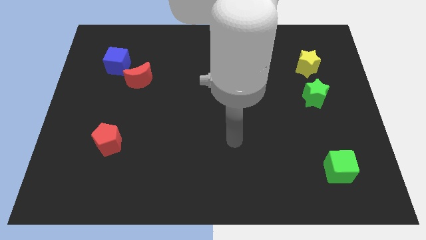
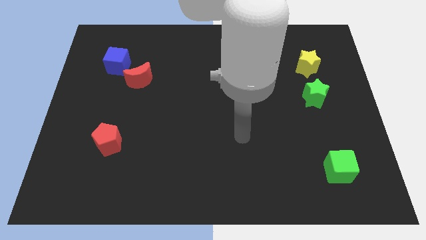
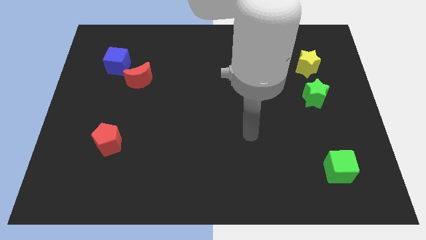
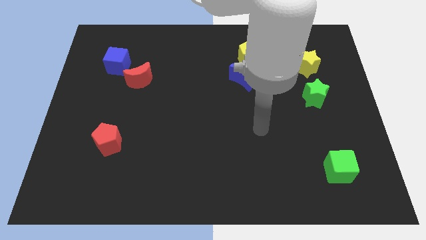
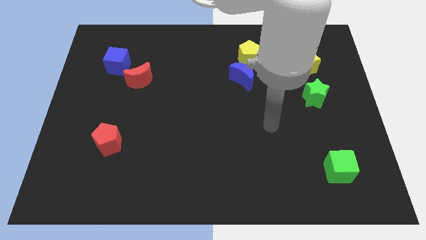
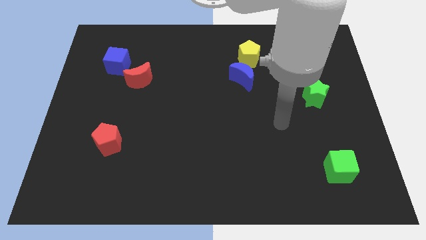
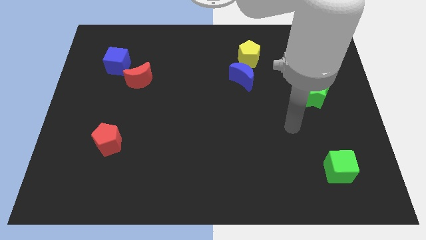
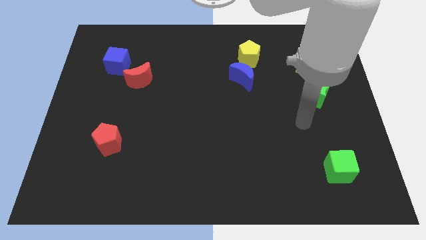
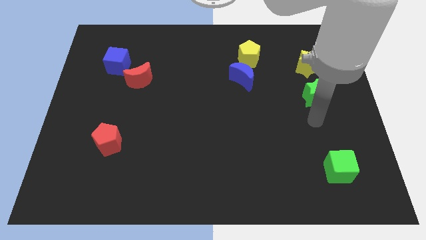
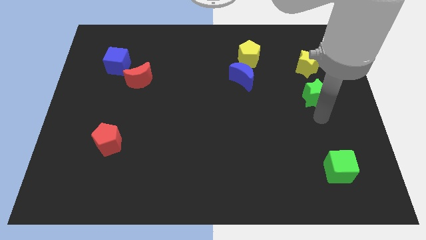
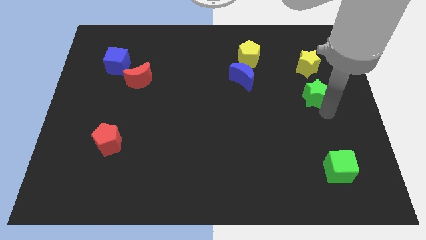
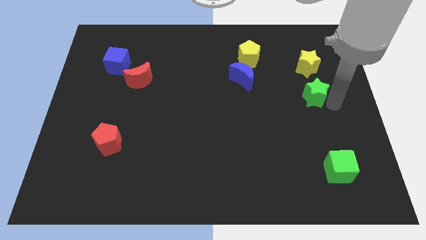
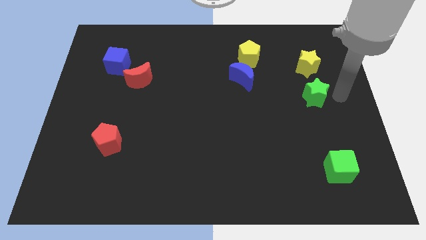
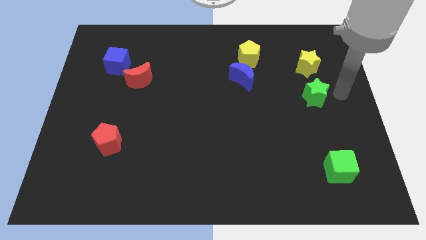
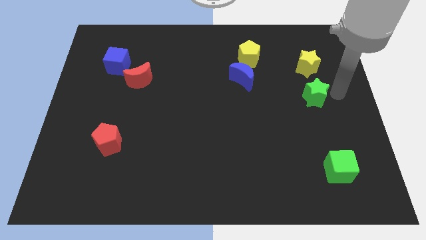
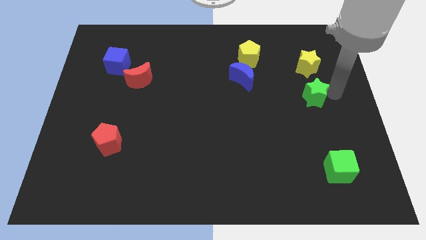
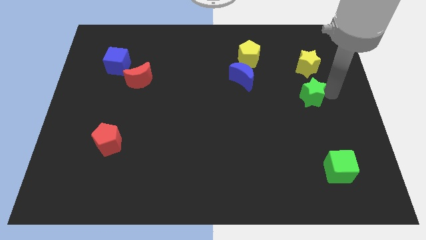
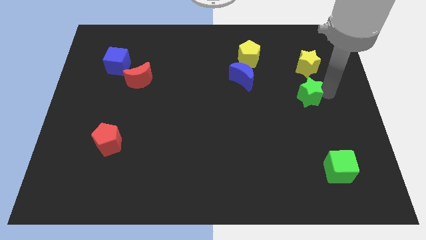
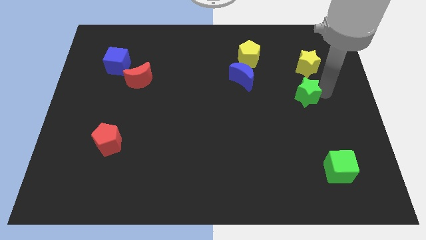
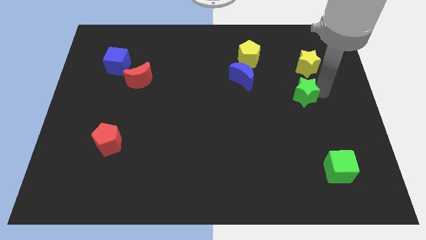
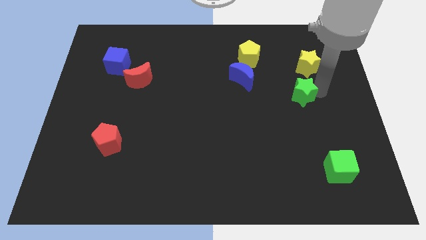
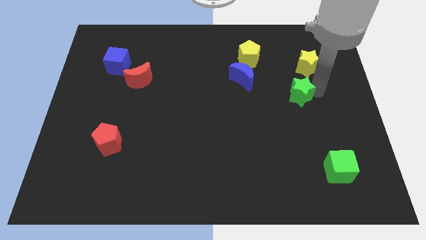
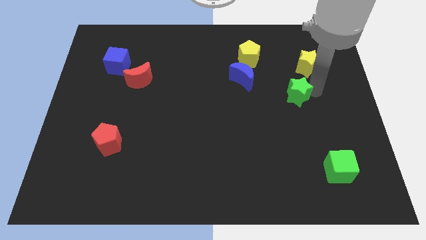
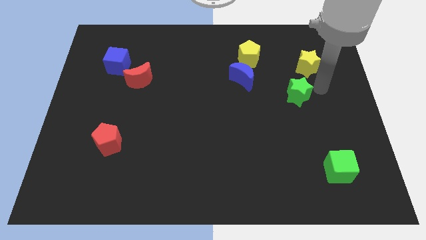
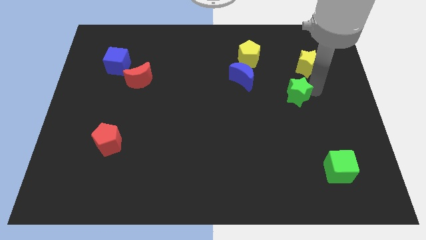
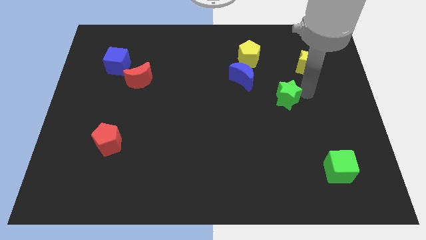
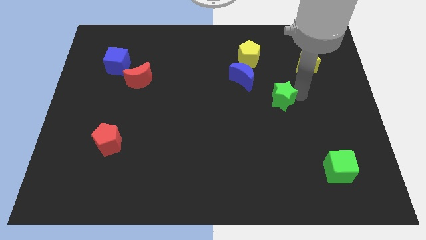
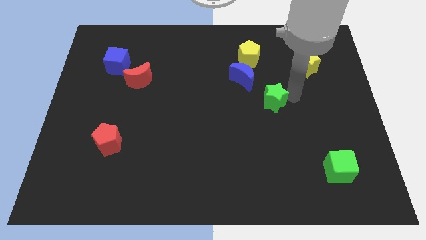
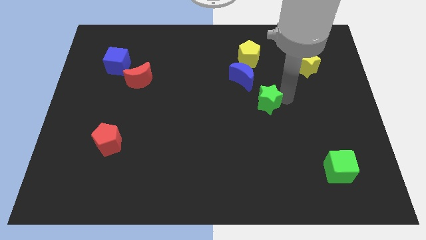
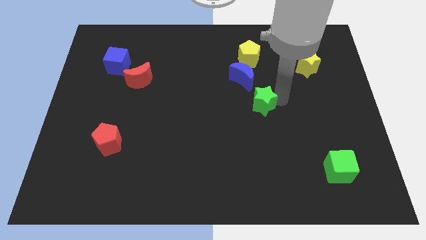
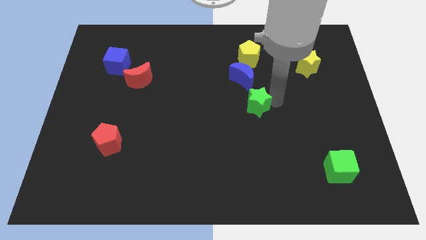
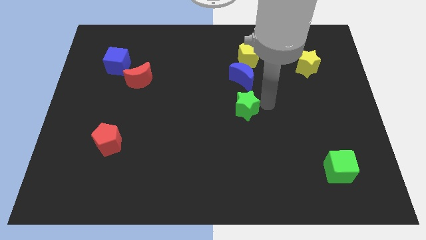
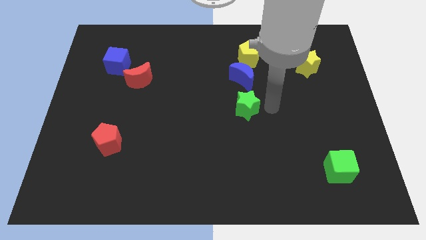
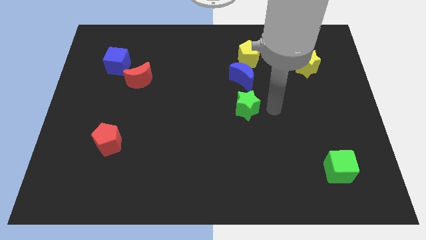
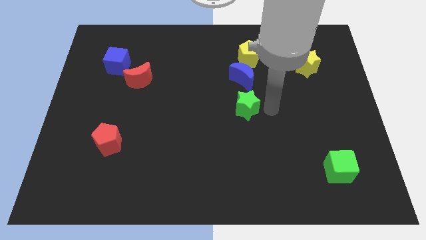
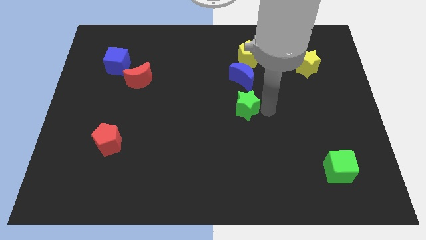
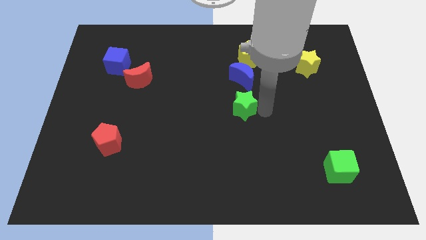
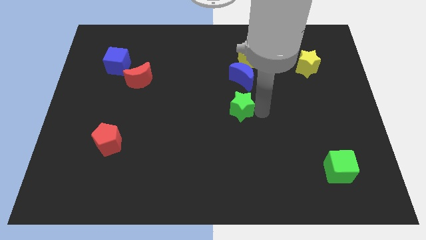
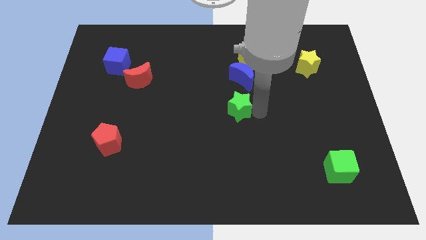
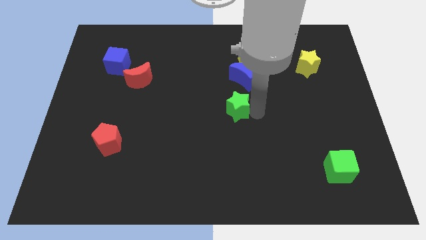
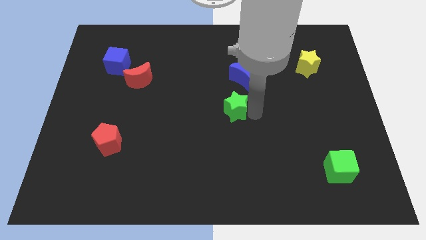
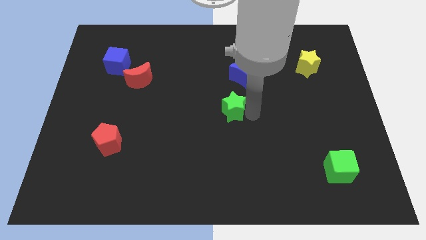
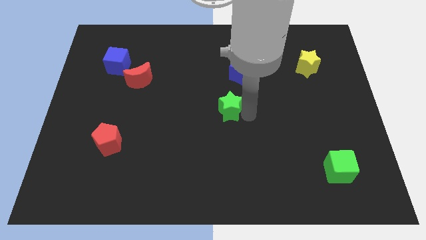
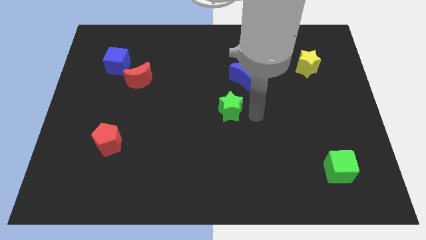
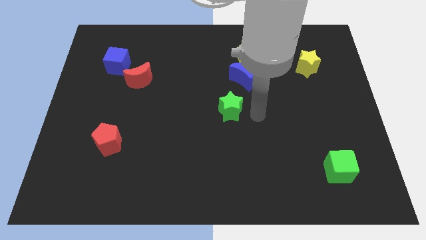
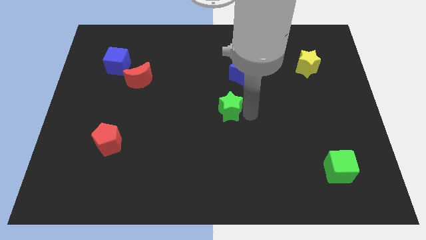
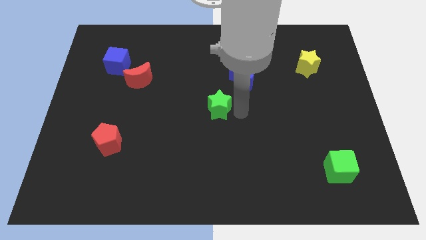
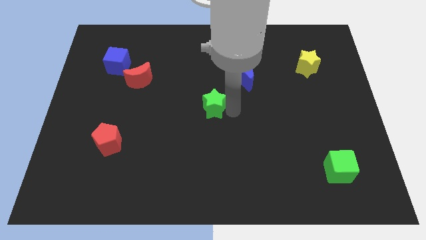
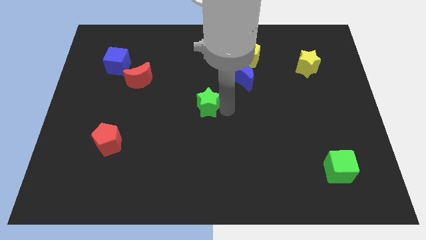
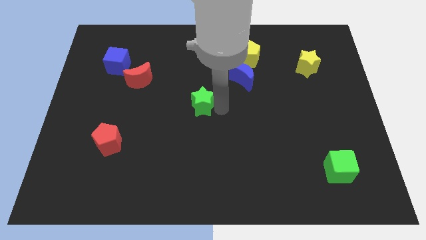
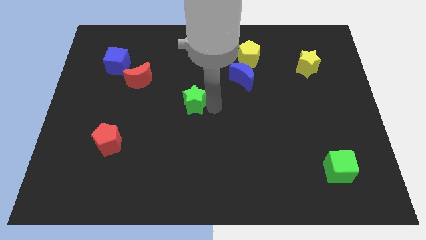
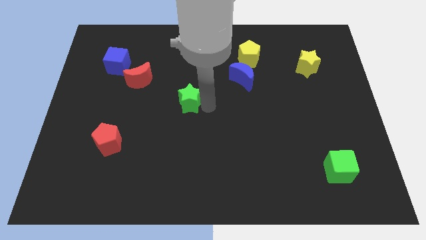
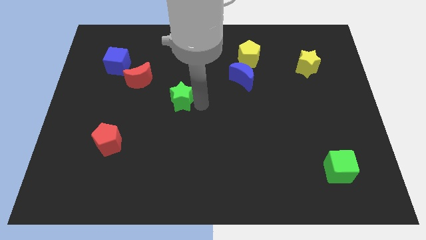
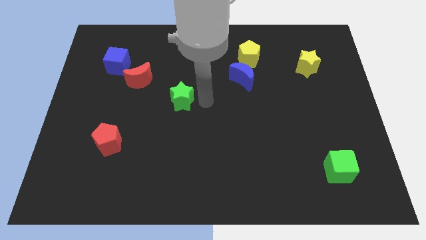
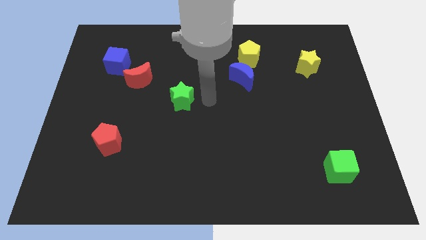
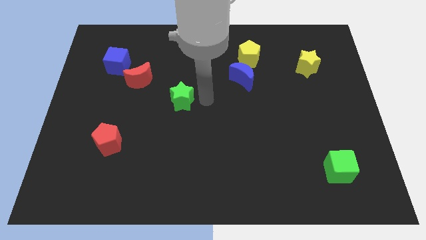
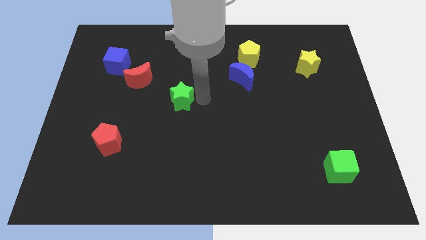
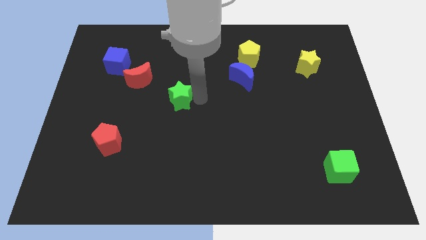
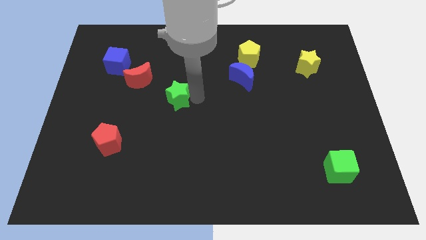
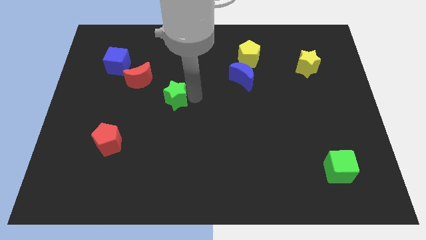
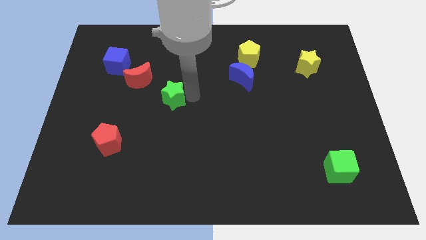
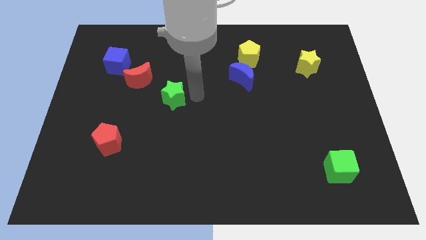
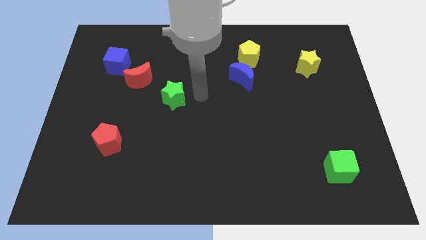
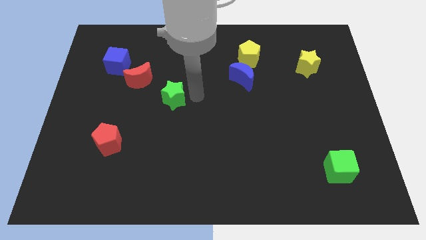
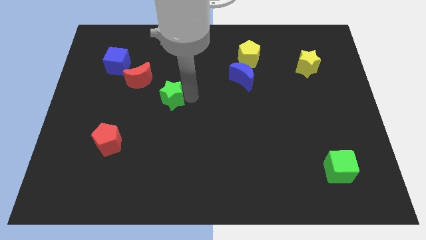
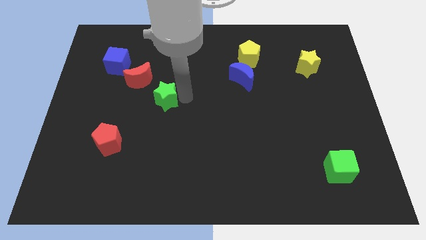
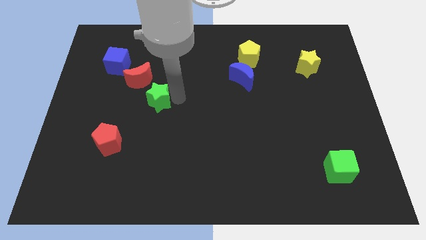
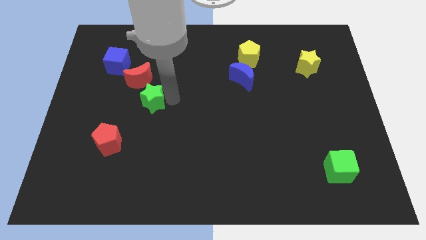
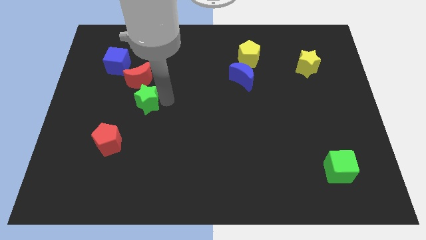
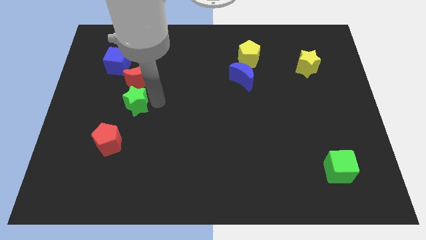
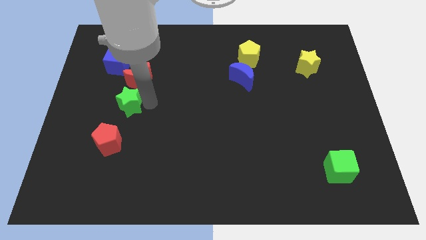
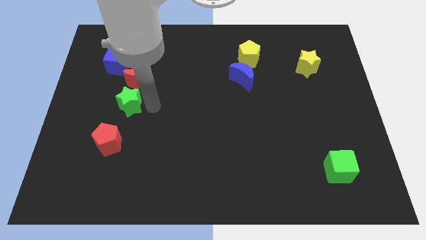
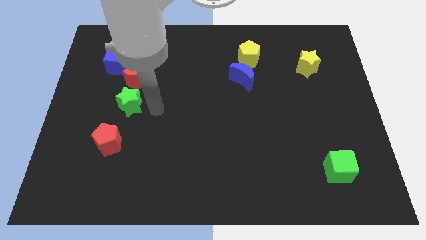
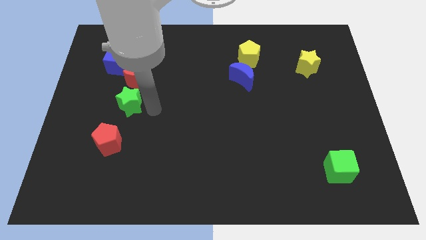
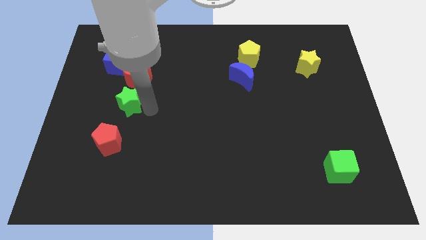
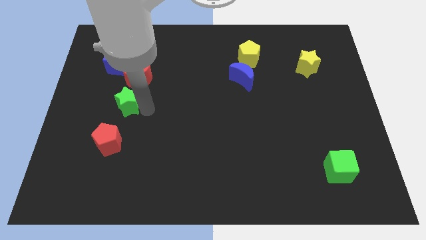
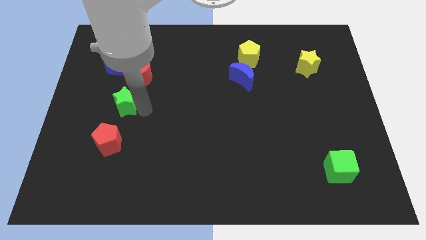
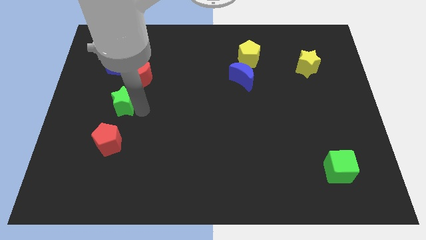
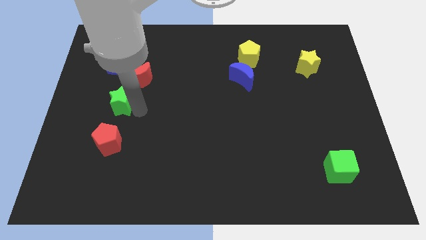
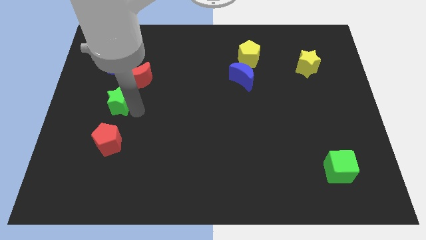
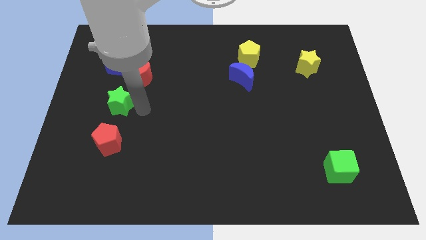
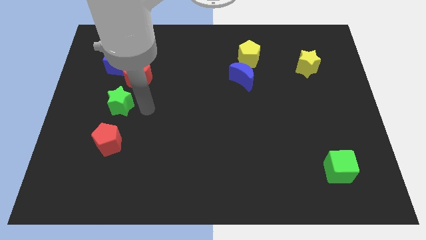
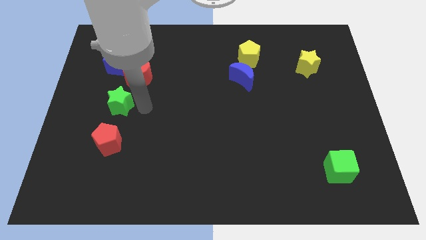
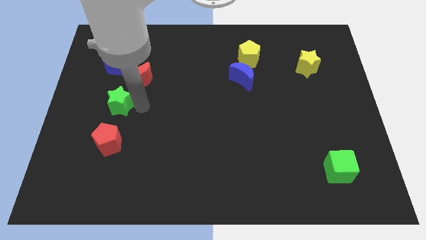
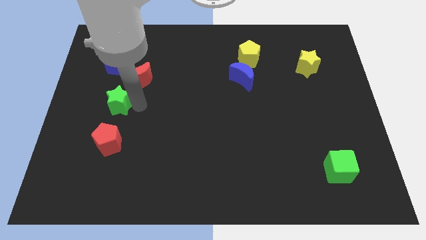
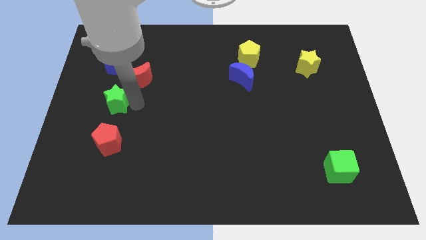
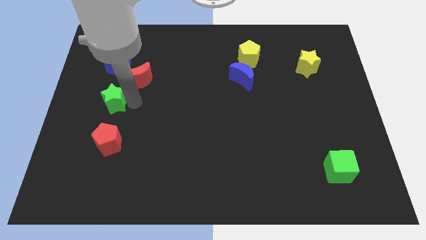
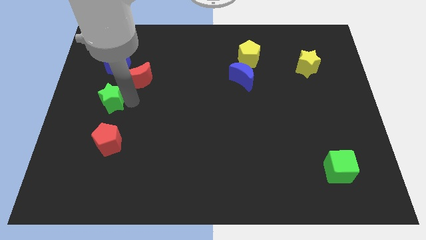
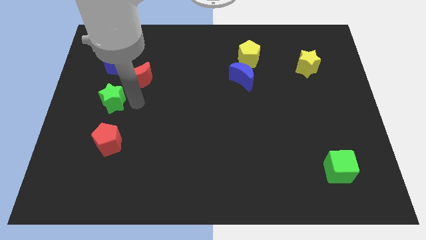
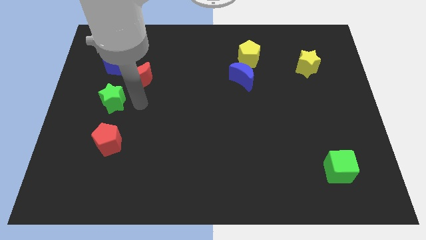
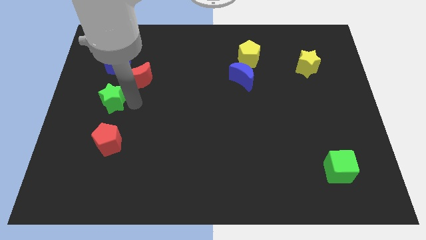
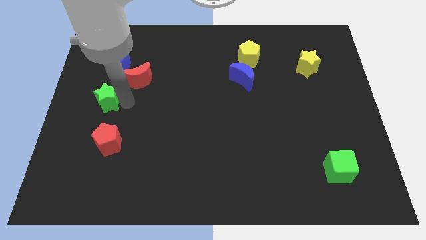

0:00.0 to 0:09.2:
put the green star to the center left
